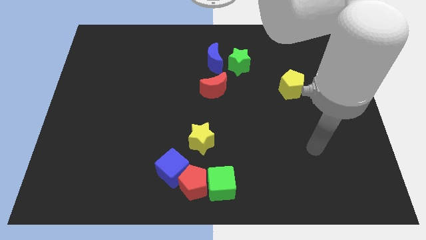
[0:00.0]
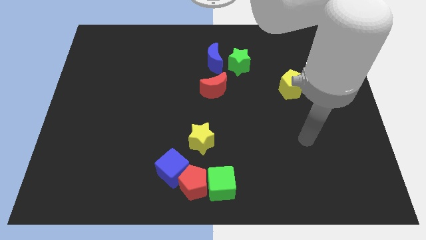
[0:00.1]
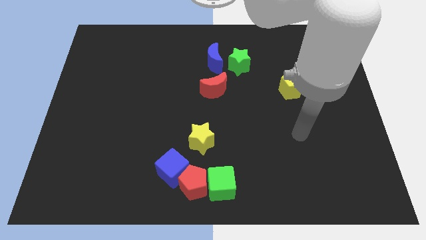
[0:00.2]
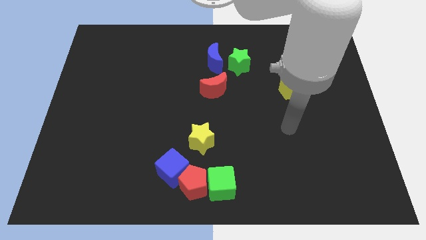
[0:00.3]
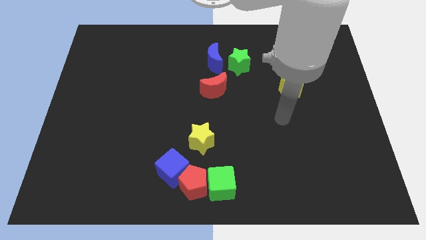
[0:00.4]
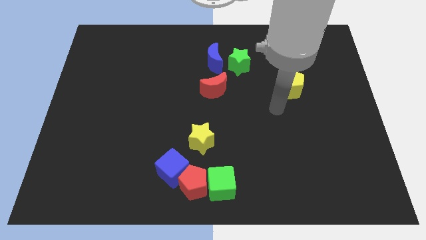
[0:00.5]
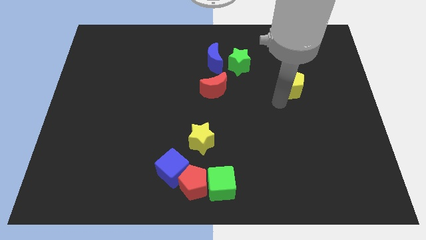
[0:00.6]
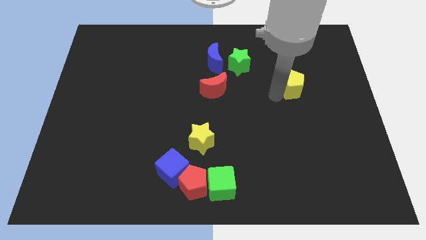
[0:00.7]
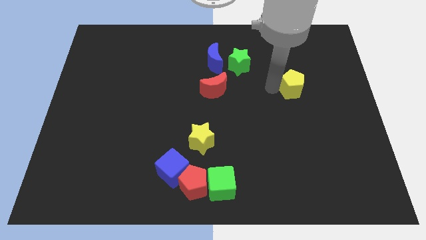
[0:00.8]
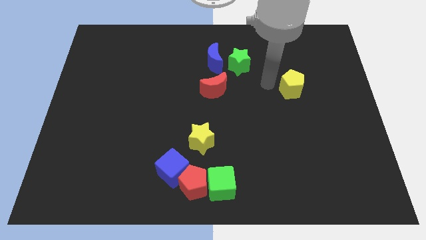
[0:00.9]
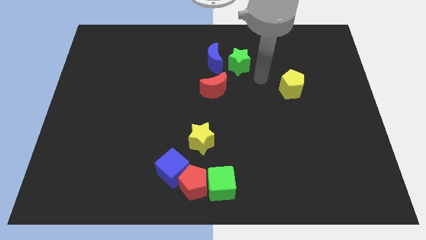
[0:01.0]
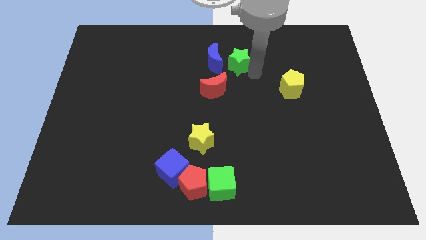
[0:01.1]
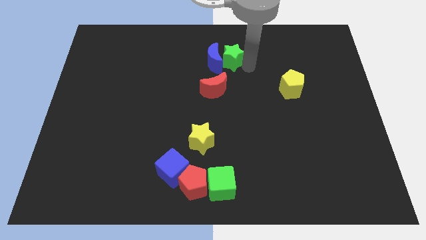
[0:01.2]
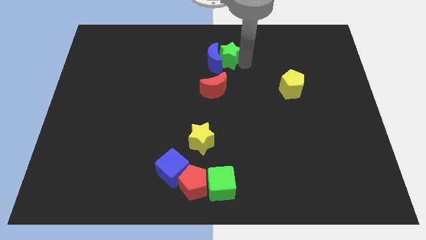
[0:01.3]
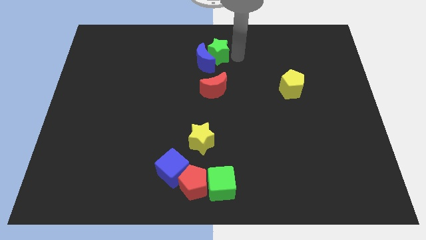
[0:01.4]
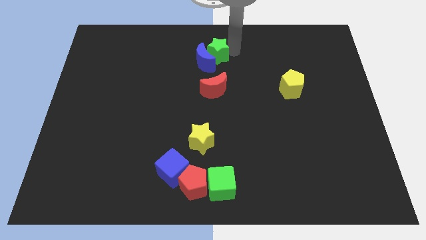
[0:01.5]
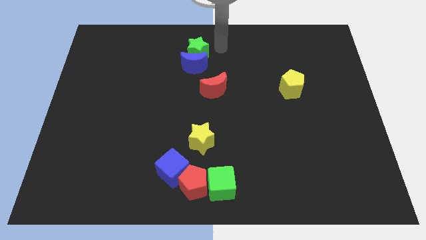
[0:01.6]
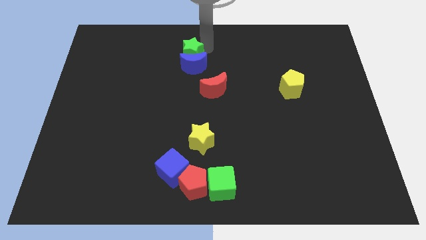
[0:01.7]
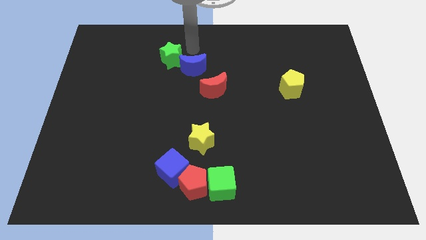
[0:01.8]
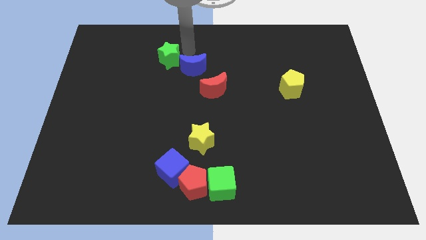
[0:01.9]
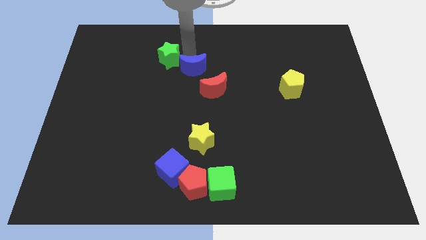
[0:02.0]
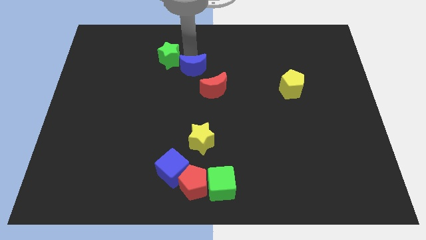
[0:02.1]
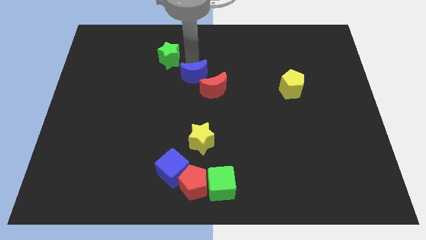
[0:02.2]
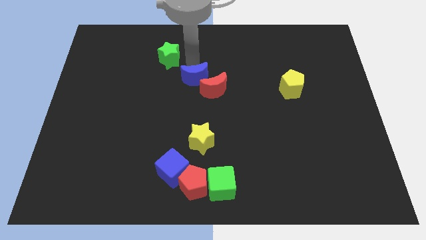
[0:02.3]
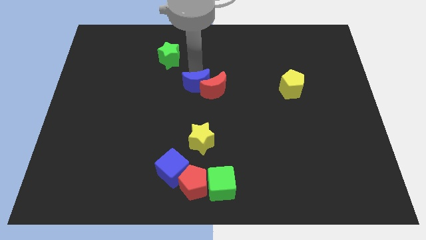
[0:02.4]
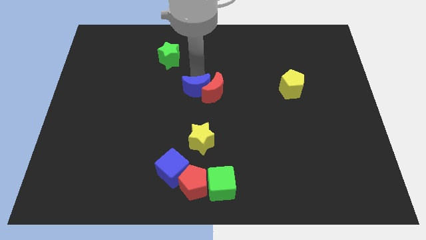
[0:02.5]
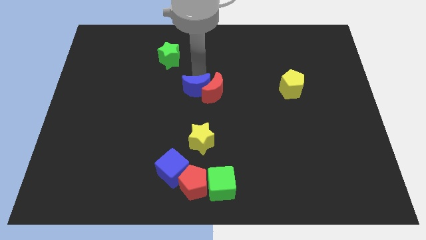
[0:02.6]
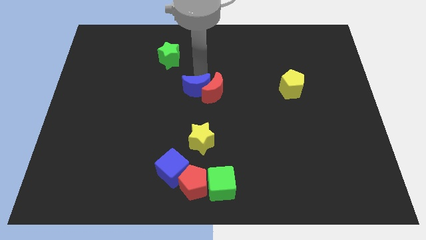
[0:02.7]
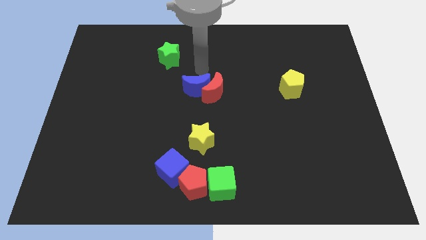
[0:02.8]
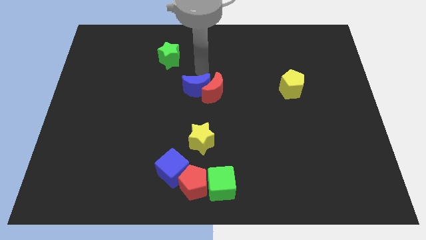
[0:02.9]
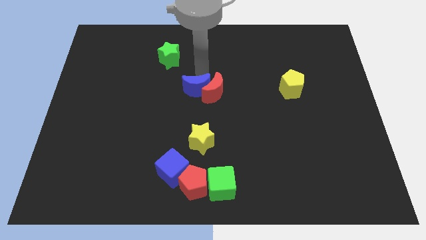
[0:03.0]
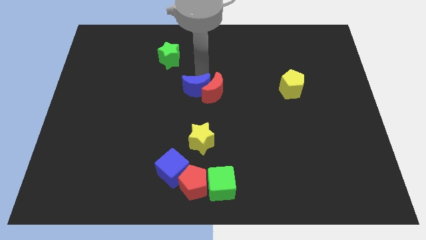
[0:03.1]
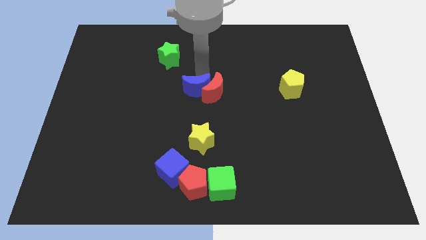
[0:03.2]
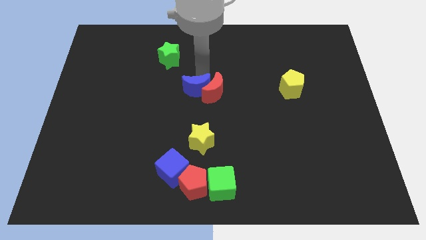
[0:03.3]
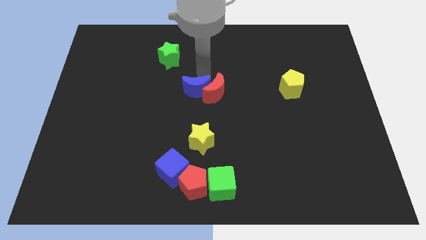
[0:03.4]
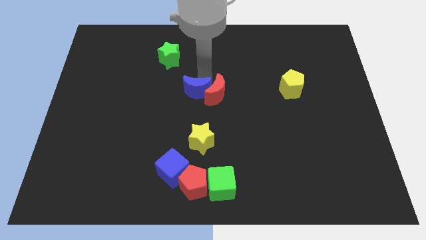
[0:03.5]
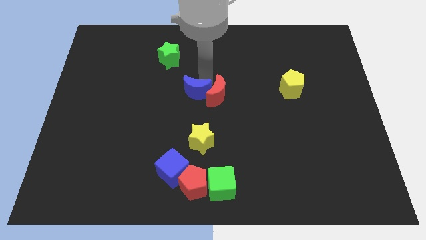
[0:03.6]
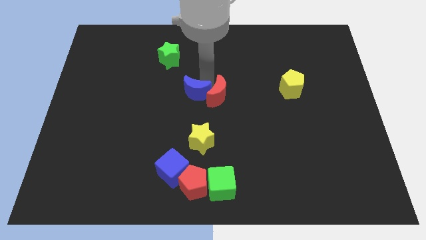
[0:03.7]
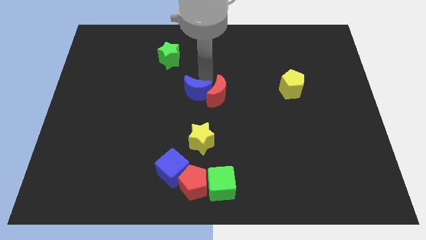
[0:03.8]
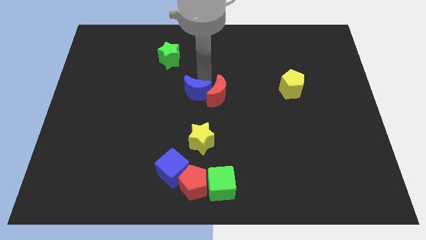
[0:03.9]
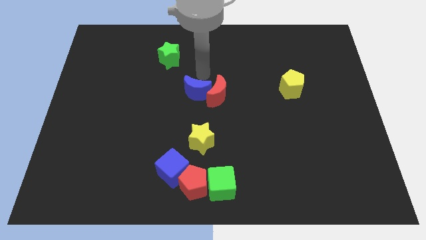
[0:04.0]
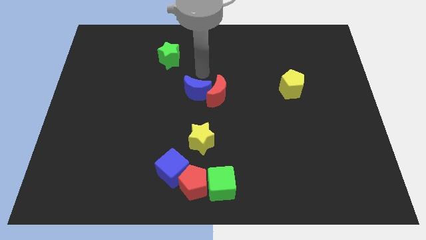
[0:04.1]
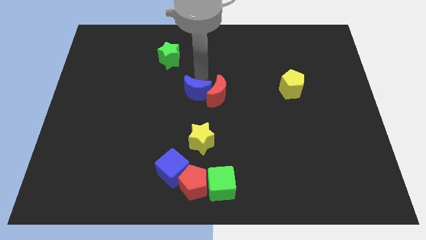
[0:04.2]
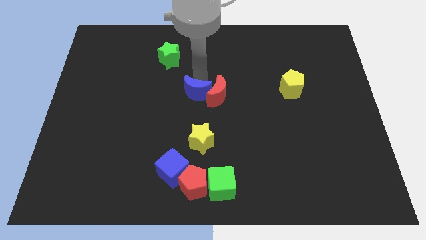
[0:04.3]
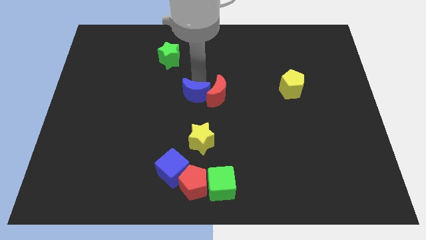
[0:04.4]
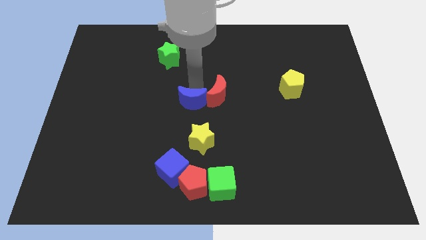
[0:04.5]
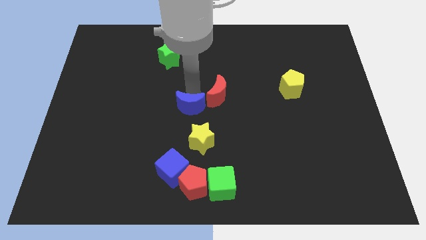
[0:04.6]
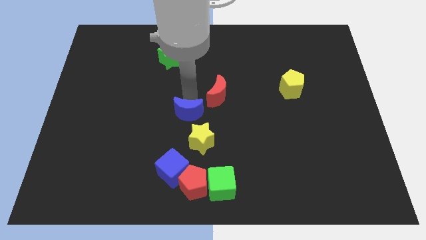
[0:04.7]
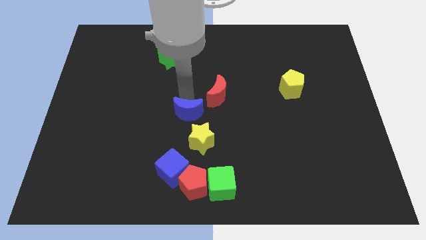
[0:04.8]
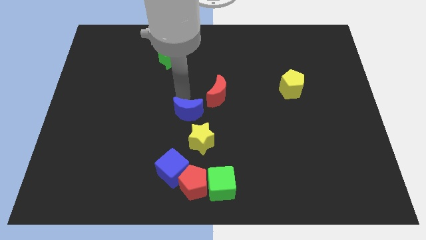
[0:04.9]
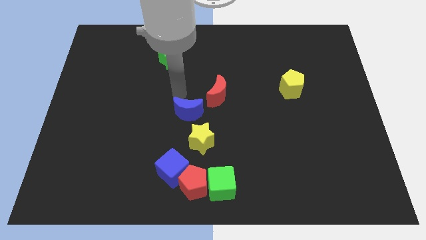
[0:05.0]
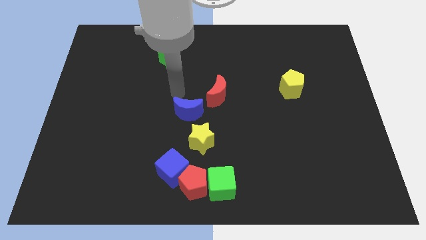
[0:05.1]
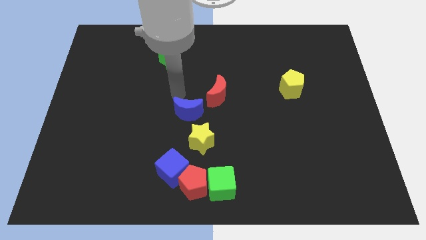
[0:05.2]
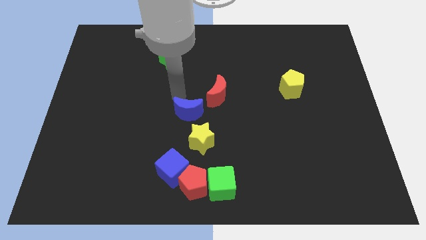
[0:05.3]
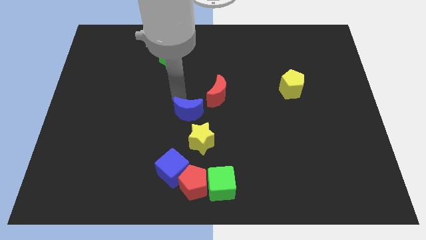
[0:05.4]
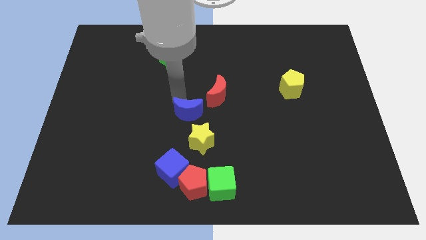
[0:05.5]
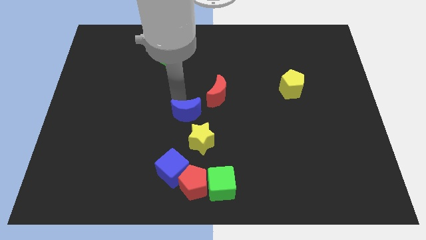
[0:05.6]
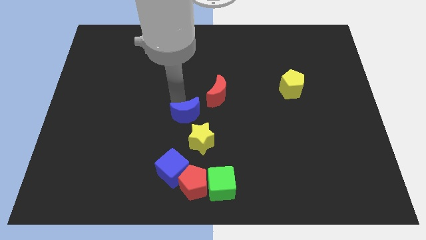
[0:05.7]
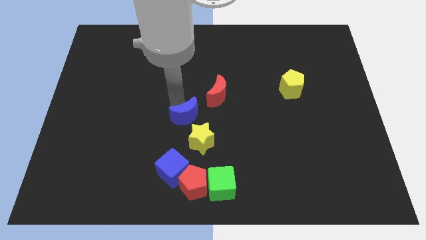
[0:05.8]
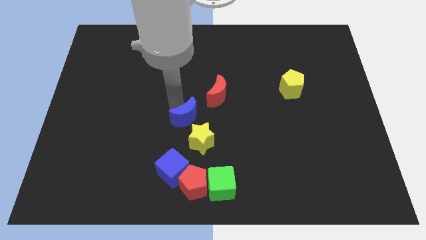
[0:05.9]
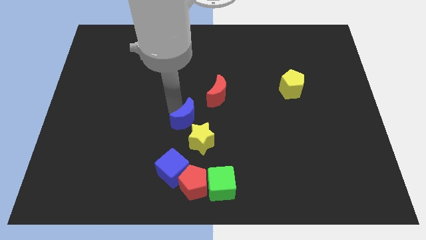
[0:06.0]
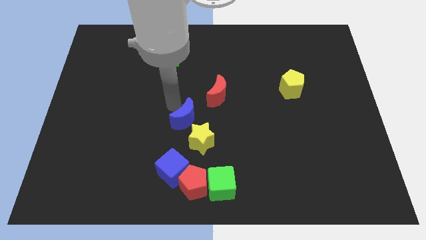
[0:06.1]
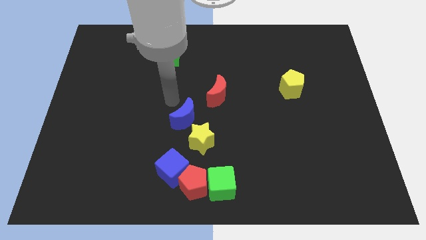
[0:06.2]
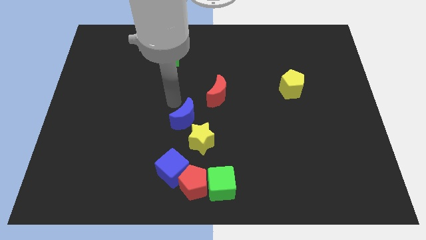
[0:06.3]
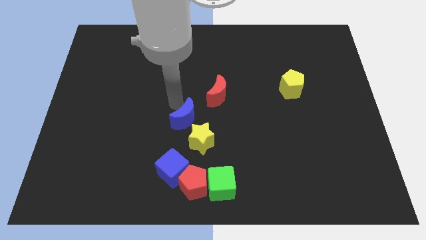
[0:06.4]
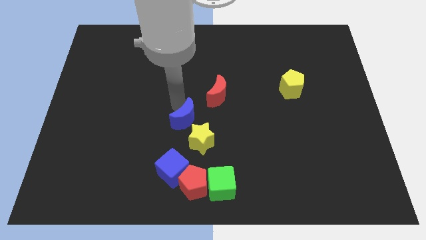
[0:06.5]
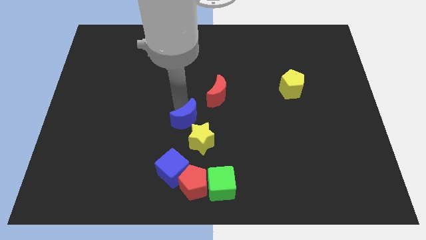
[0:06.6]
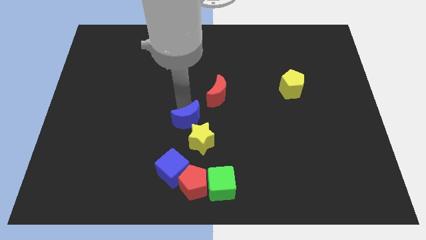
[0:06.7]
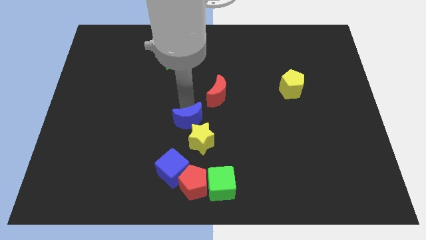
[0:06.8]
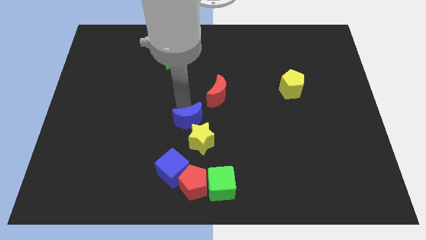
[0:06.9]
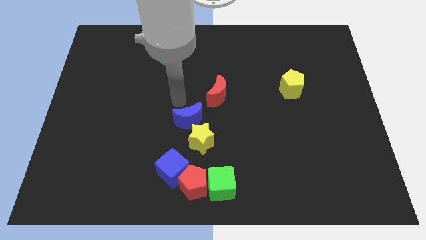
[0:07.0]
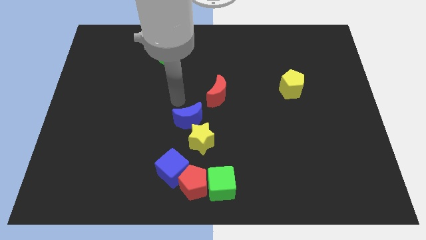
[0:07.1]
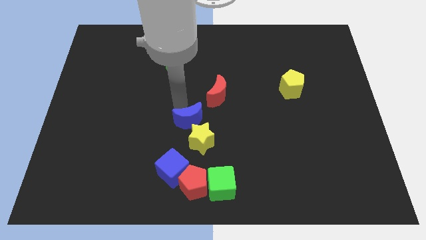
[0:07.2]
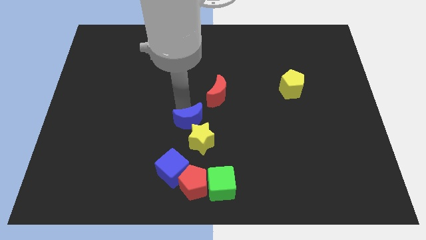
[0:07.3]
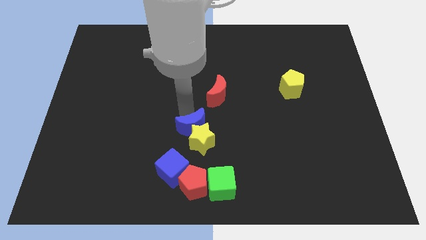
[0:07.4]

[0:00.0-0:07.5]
move the blue moon to the yellow star

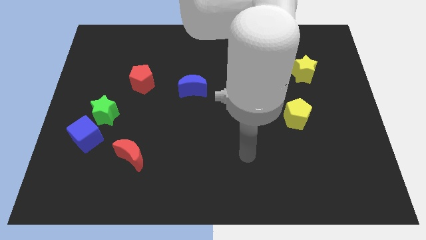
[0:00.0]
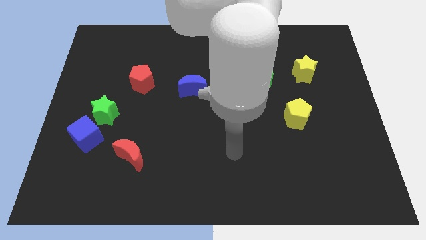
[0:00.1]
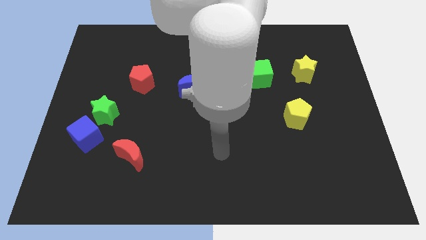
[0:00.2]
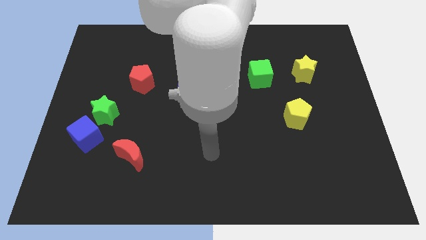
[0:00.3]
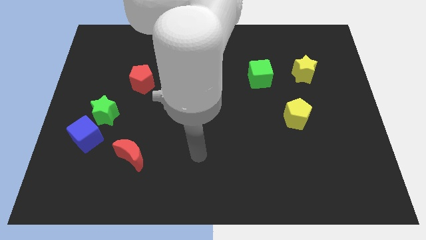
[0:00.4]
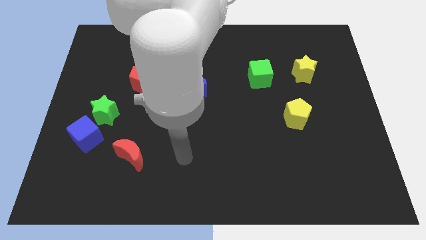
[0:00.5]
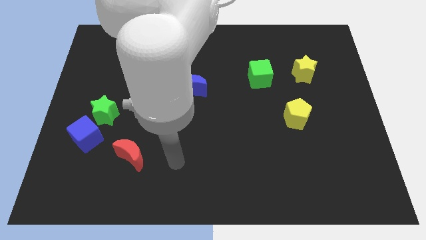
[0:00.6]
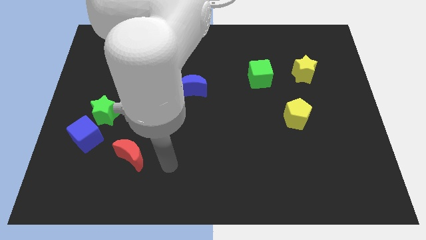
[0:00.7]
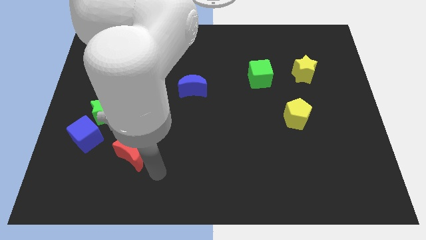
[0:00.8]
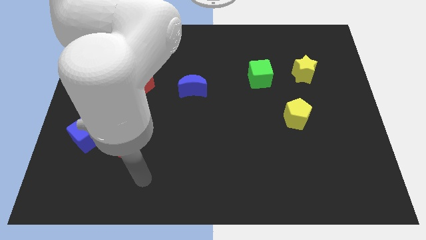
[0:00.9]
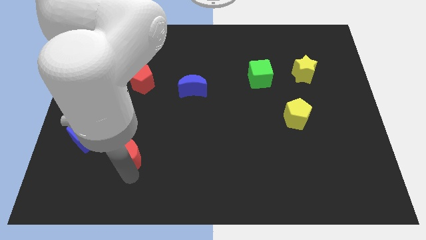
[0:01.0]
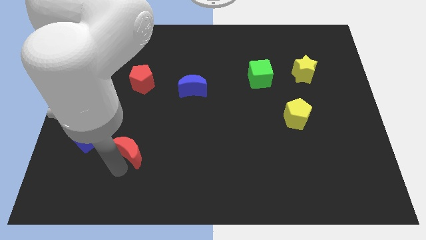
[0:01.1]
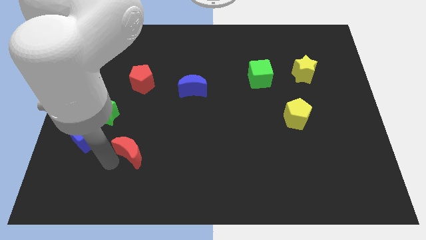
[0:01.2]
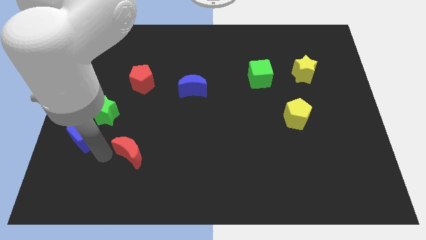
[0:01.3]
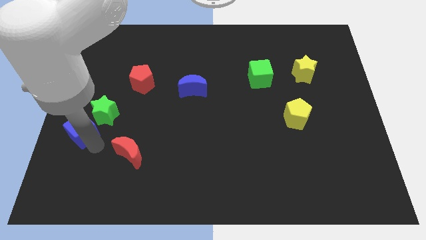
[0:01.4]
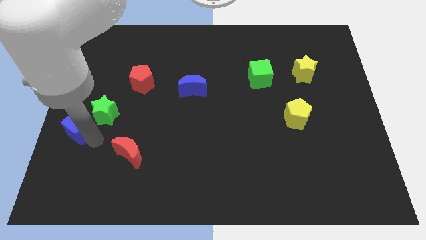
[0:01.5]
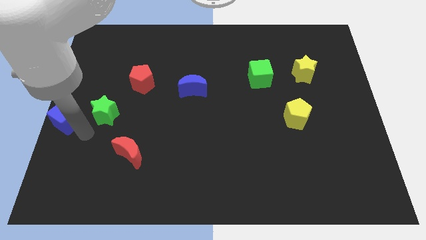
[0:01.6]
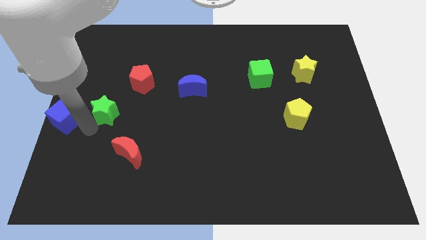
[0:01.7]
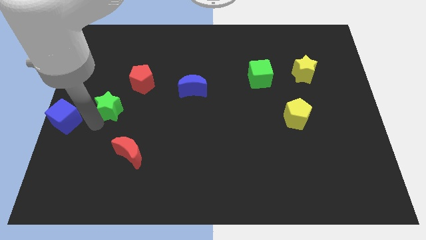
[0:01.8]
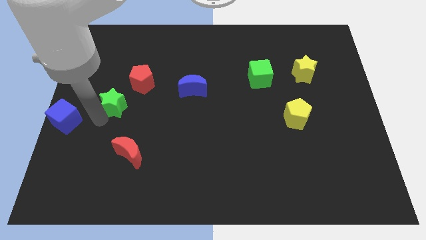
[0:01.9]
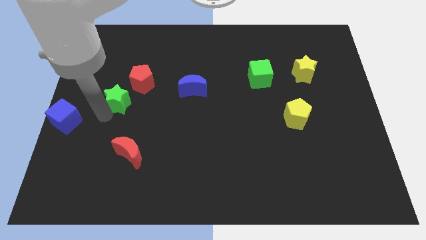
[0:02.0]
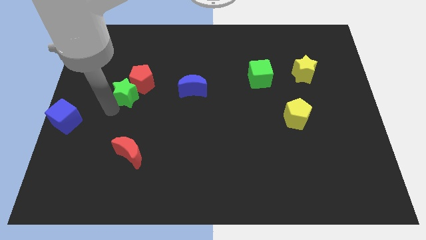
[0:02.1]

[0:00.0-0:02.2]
move the green star towards the red pentagon
